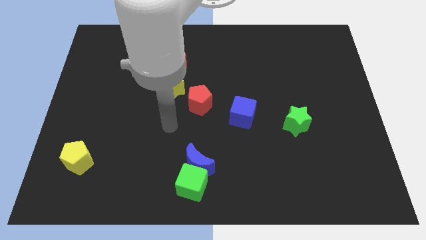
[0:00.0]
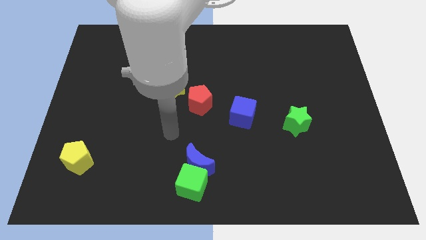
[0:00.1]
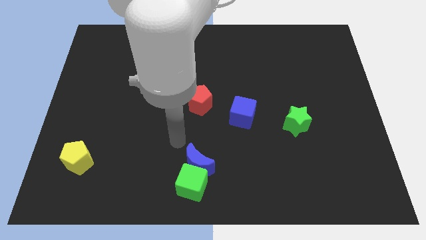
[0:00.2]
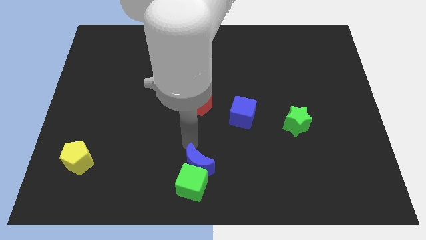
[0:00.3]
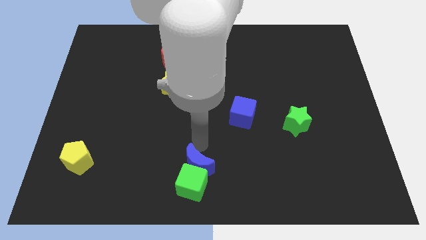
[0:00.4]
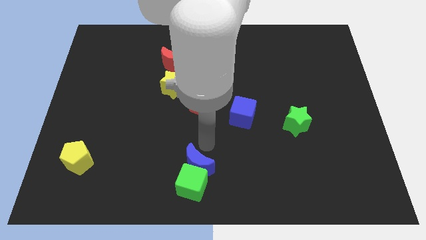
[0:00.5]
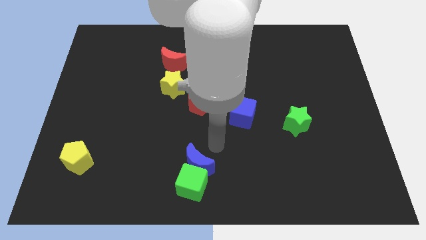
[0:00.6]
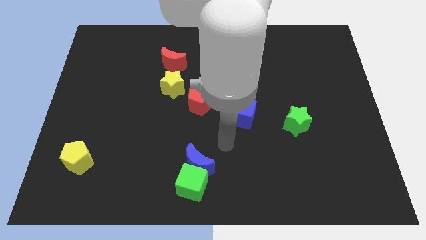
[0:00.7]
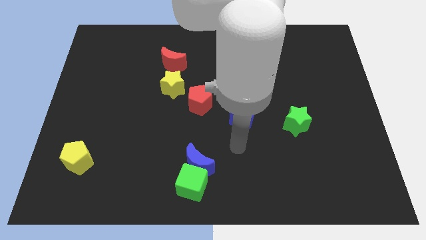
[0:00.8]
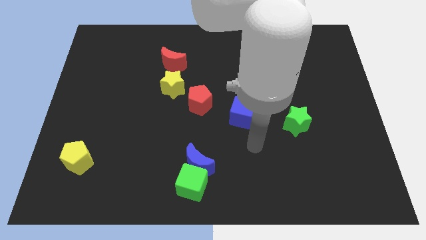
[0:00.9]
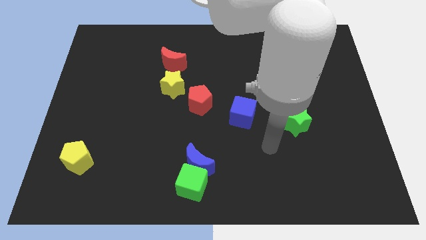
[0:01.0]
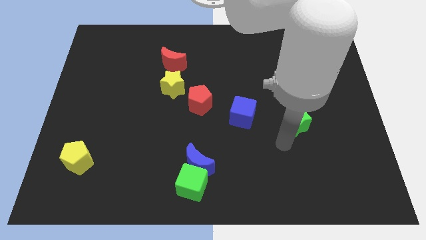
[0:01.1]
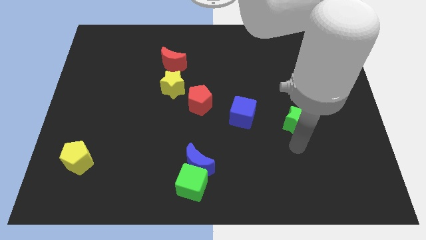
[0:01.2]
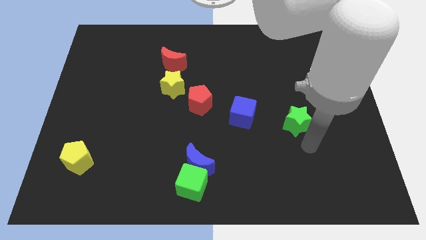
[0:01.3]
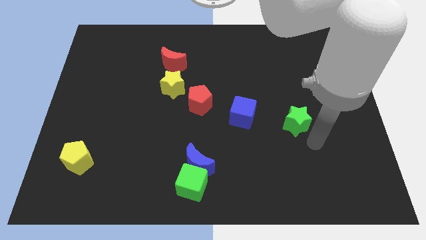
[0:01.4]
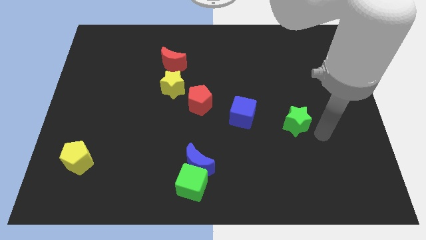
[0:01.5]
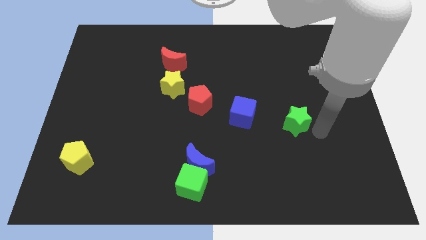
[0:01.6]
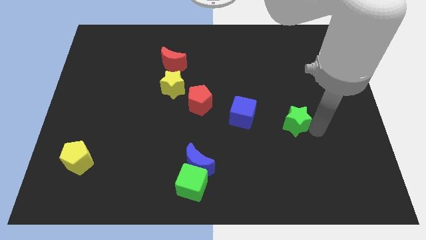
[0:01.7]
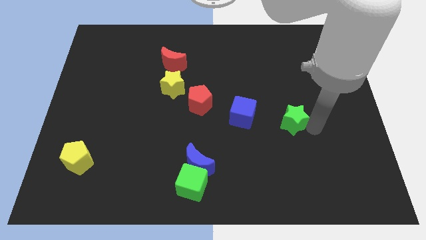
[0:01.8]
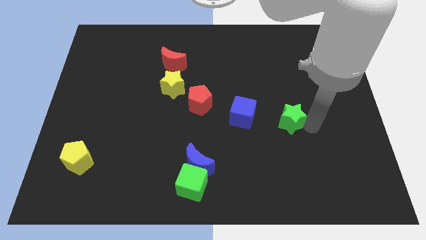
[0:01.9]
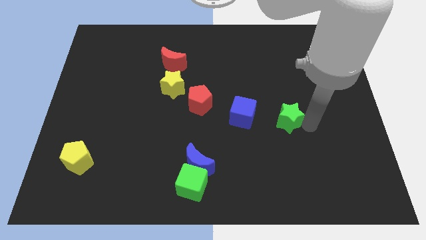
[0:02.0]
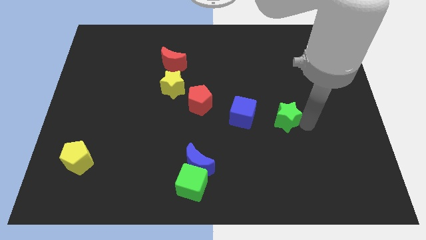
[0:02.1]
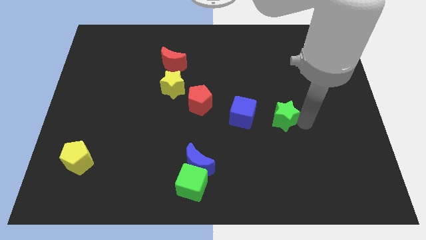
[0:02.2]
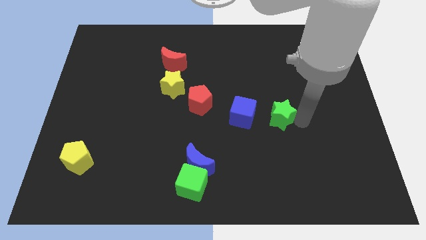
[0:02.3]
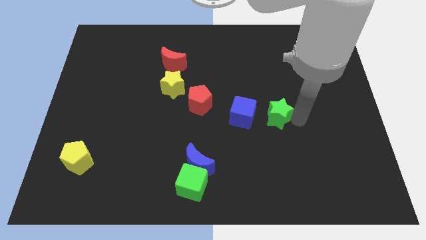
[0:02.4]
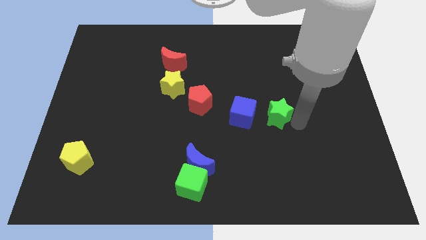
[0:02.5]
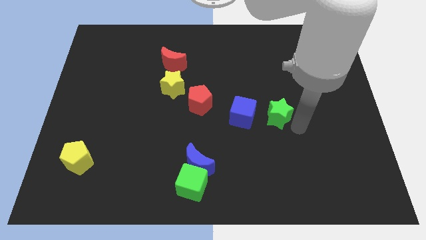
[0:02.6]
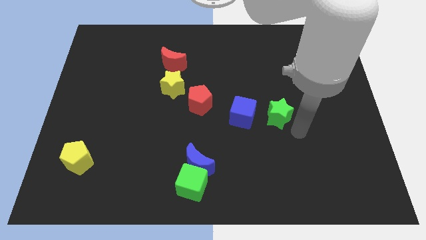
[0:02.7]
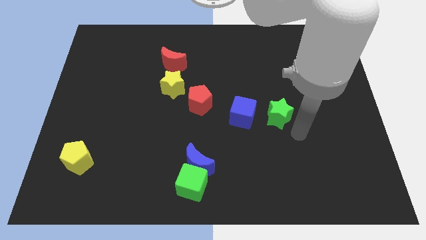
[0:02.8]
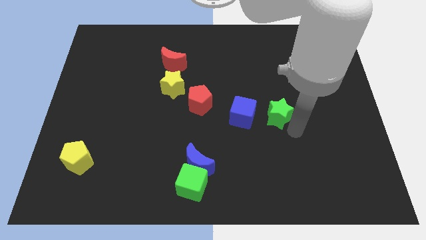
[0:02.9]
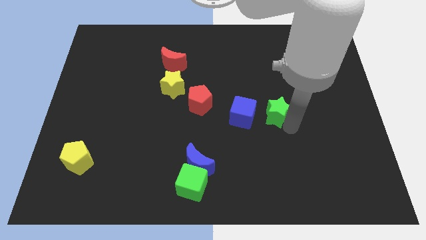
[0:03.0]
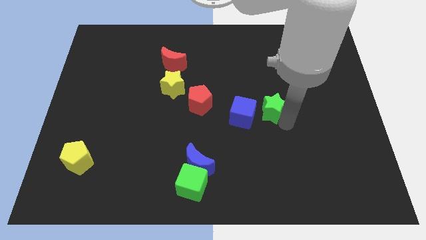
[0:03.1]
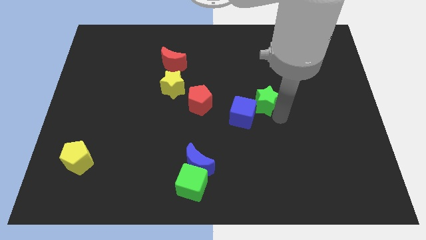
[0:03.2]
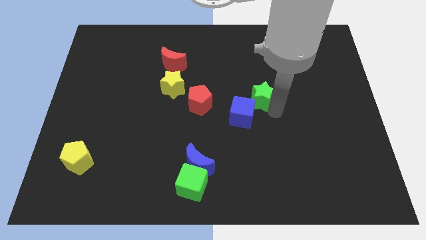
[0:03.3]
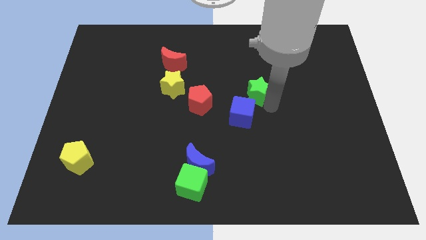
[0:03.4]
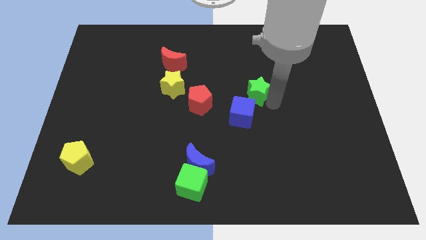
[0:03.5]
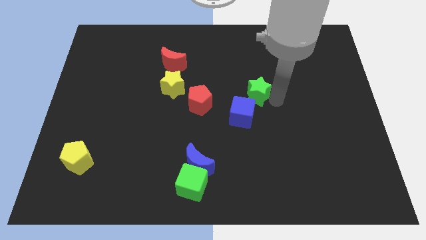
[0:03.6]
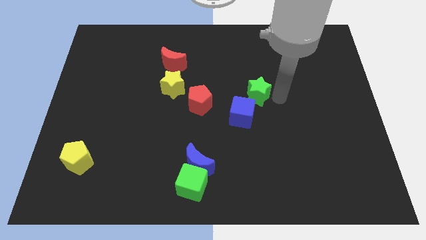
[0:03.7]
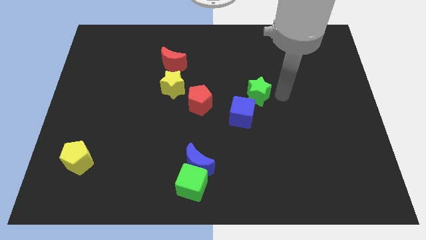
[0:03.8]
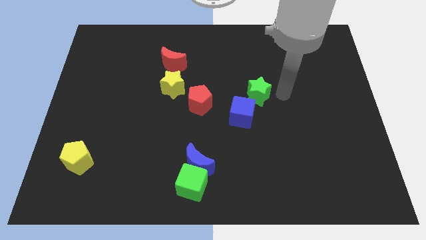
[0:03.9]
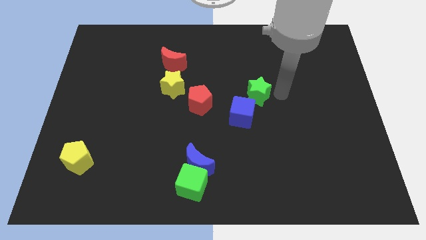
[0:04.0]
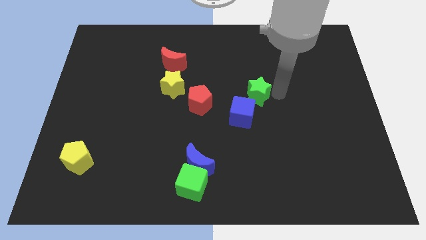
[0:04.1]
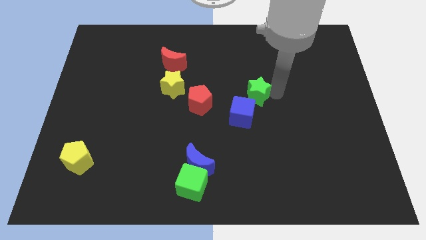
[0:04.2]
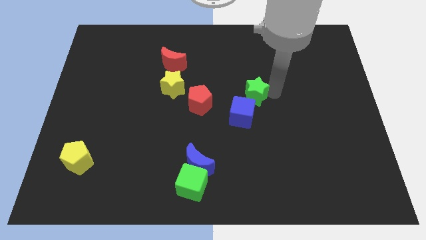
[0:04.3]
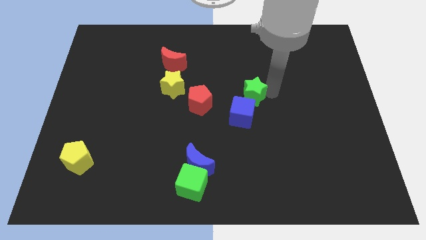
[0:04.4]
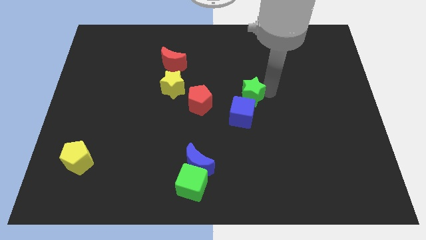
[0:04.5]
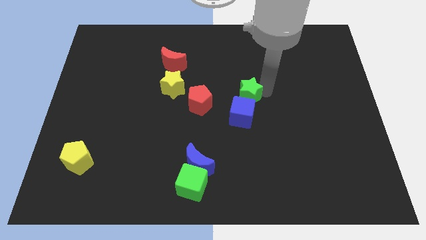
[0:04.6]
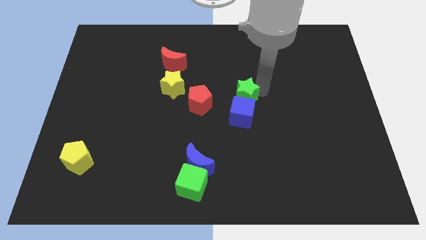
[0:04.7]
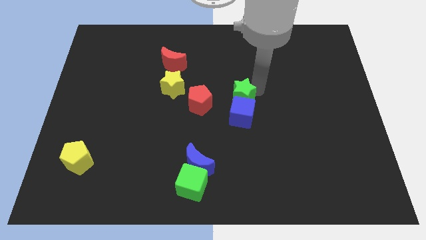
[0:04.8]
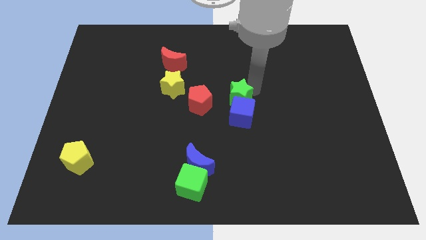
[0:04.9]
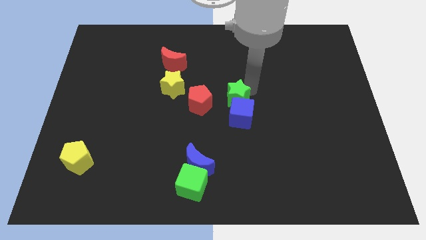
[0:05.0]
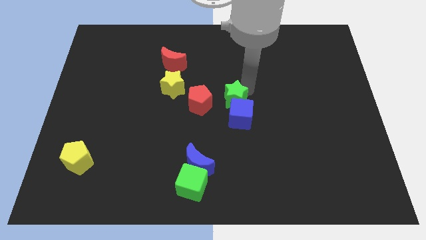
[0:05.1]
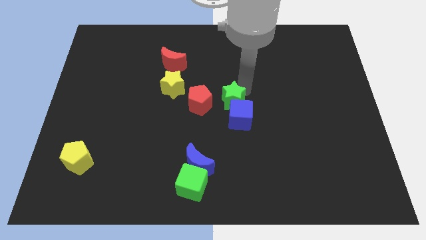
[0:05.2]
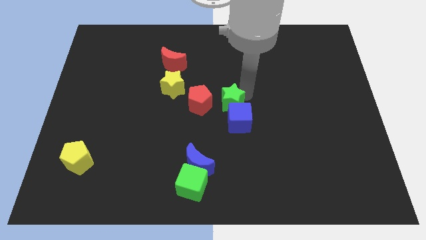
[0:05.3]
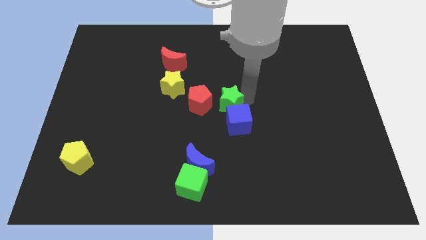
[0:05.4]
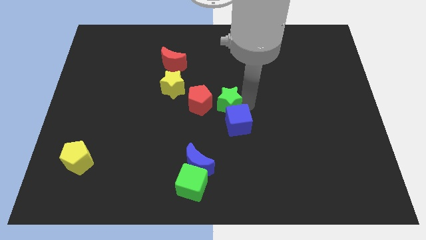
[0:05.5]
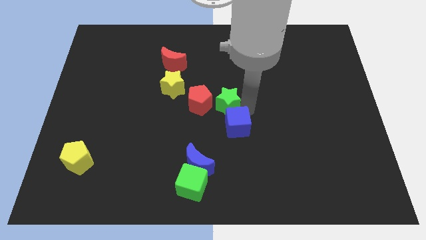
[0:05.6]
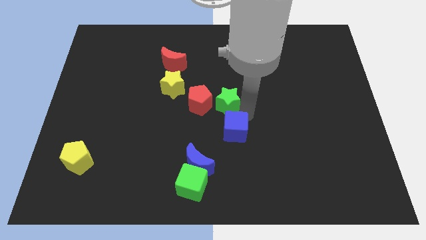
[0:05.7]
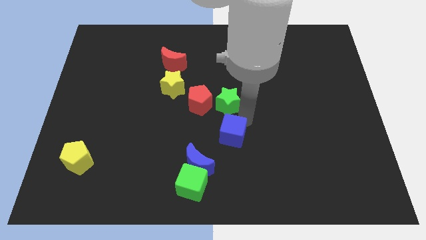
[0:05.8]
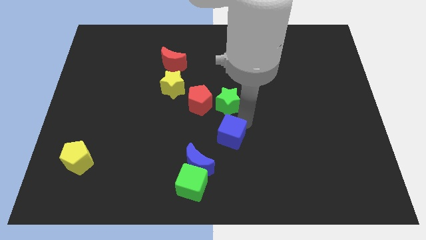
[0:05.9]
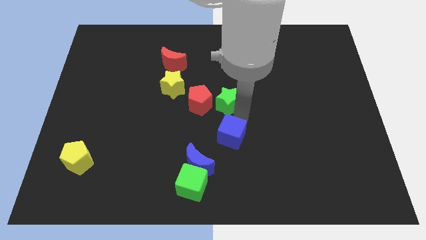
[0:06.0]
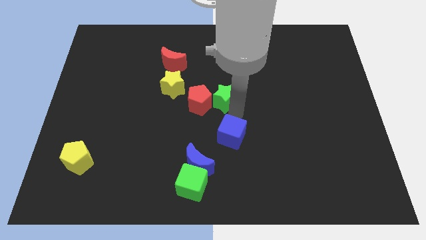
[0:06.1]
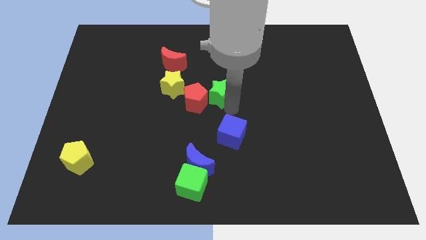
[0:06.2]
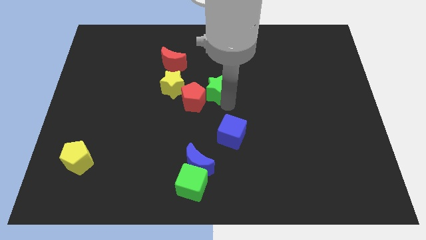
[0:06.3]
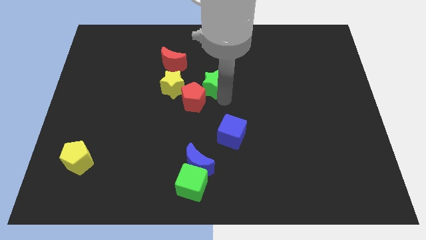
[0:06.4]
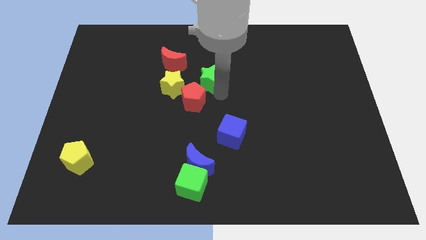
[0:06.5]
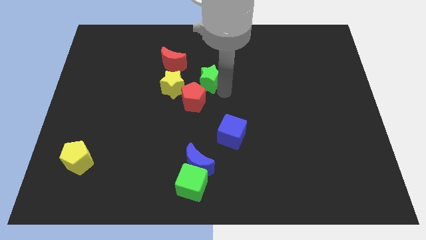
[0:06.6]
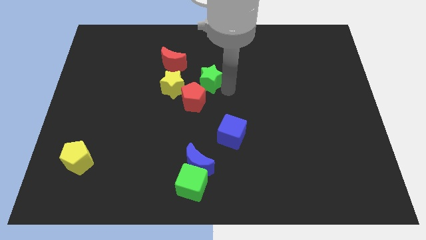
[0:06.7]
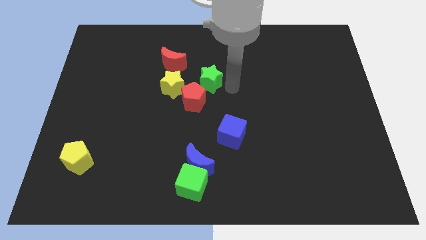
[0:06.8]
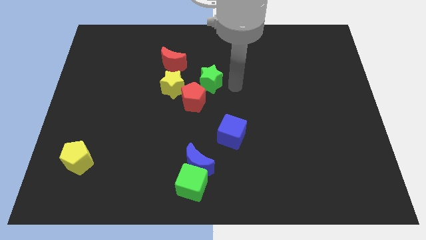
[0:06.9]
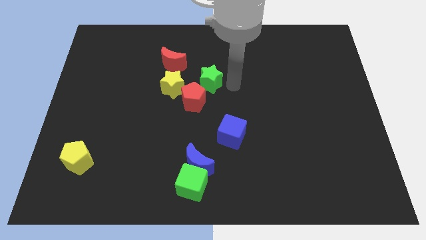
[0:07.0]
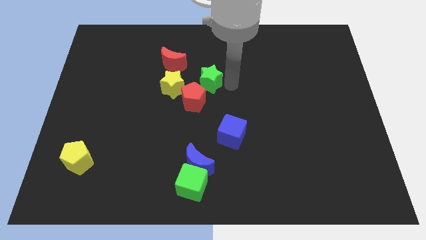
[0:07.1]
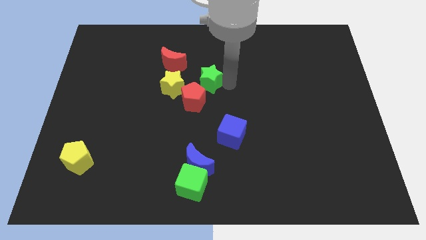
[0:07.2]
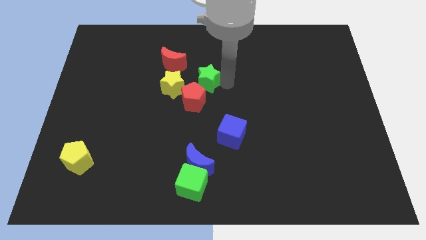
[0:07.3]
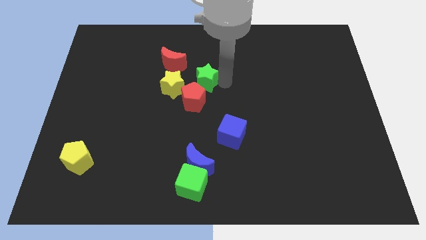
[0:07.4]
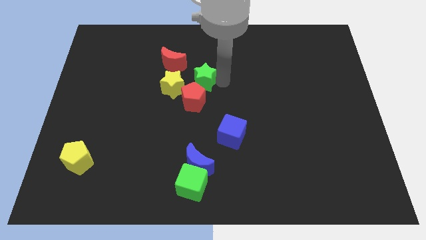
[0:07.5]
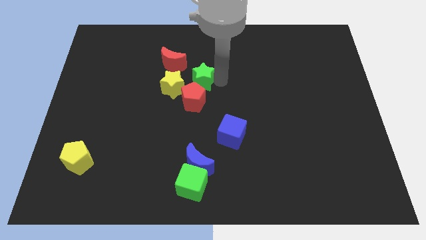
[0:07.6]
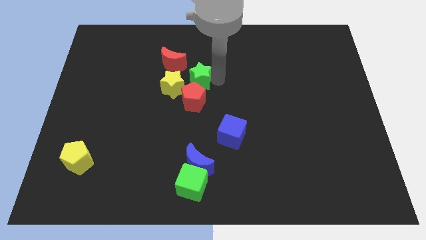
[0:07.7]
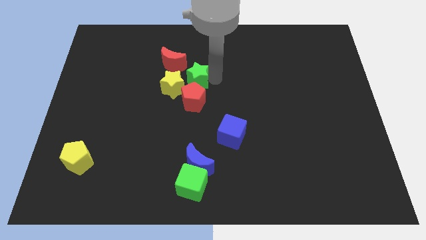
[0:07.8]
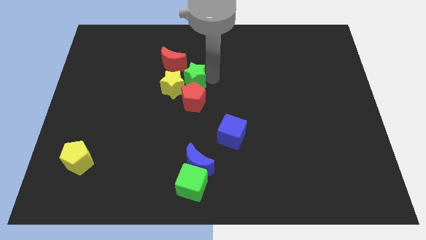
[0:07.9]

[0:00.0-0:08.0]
push the green star towards the yellow star
